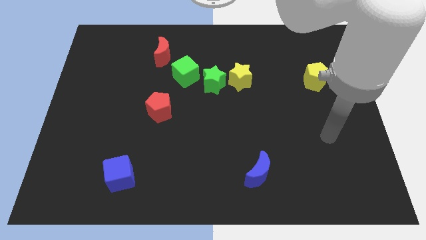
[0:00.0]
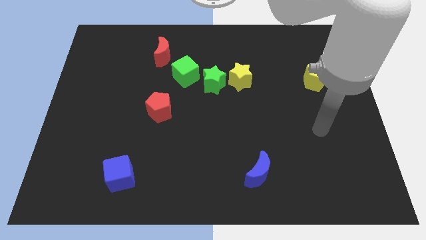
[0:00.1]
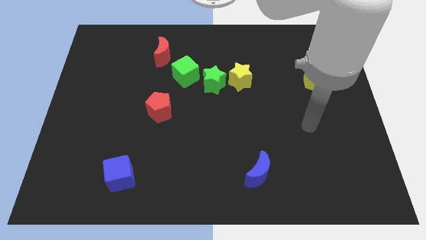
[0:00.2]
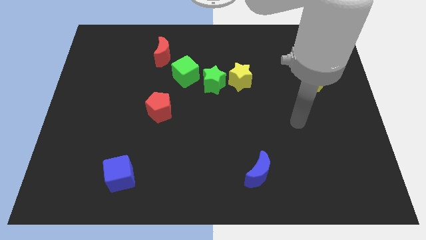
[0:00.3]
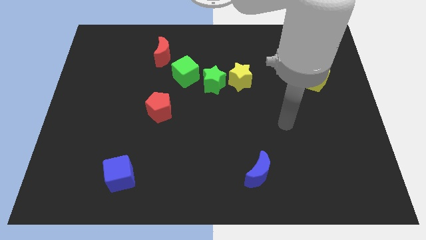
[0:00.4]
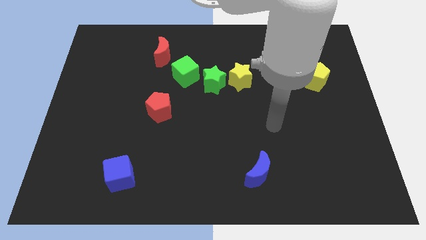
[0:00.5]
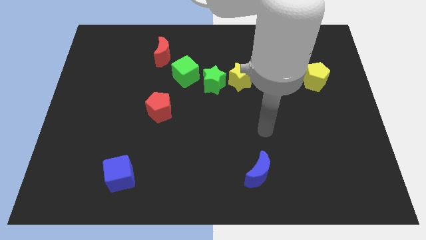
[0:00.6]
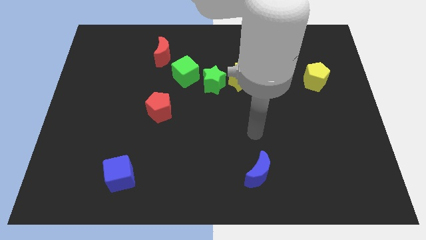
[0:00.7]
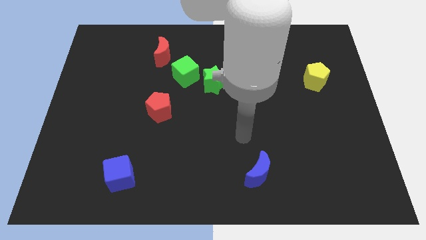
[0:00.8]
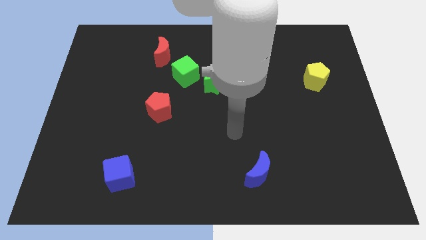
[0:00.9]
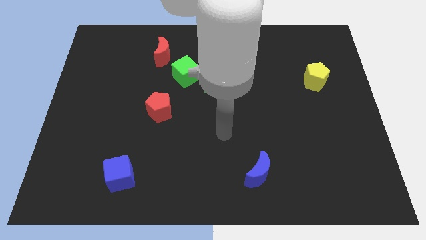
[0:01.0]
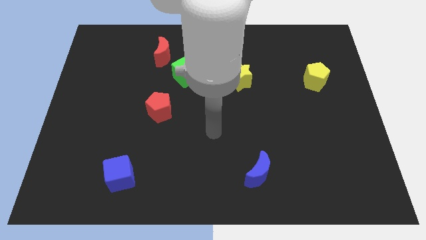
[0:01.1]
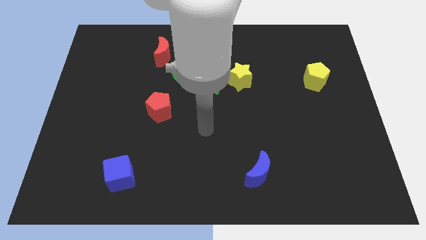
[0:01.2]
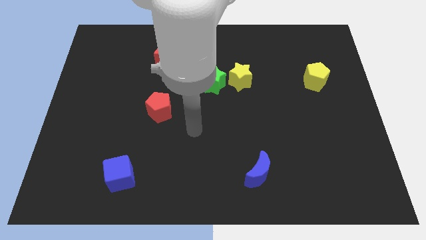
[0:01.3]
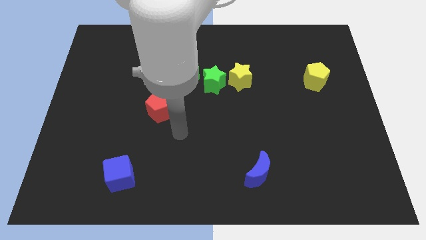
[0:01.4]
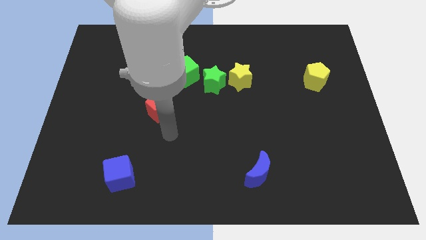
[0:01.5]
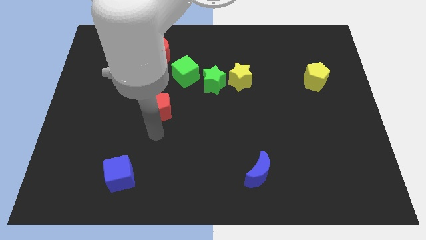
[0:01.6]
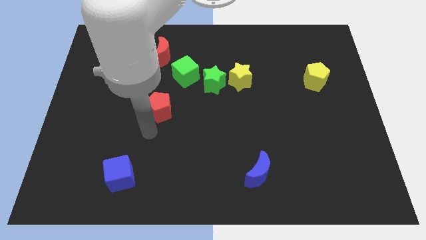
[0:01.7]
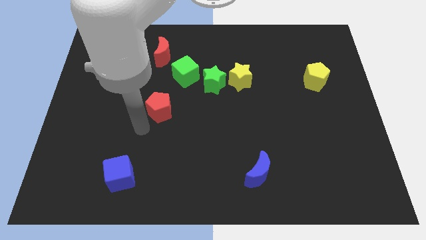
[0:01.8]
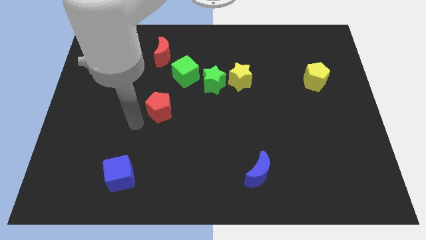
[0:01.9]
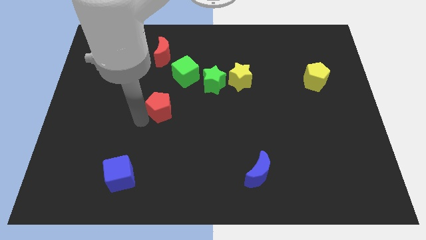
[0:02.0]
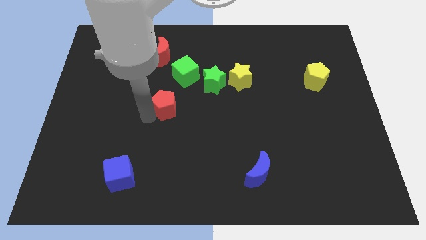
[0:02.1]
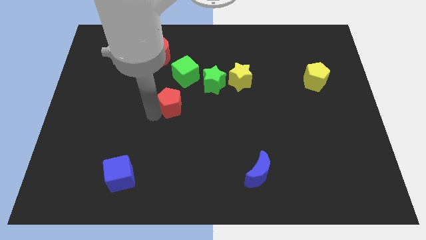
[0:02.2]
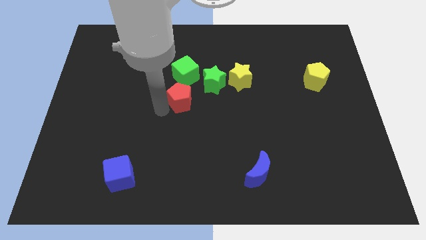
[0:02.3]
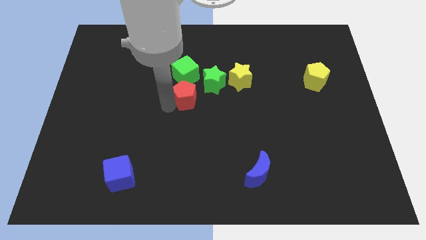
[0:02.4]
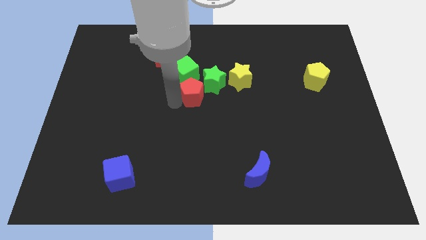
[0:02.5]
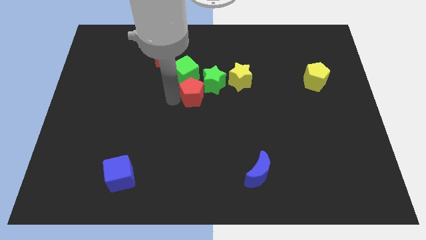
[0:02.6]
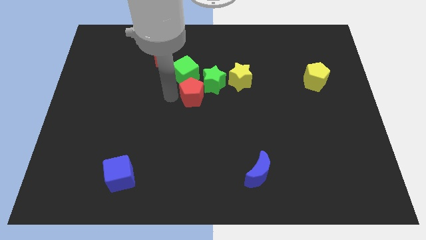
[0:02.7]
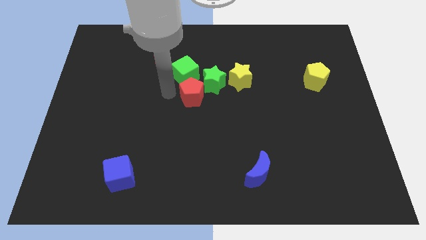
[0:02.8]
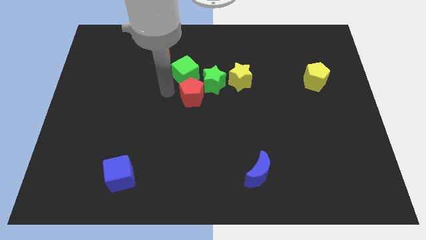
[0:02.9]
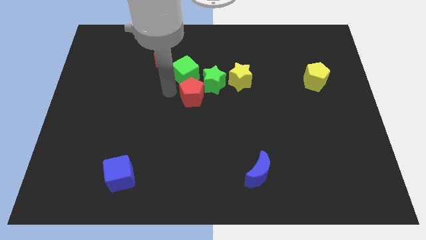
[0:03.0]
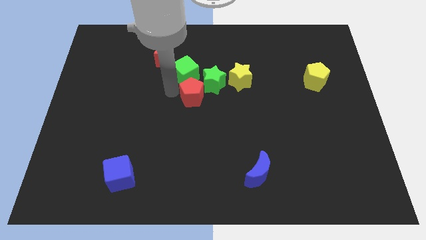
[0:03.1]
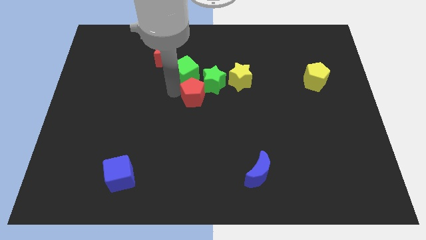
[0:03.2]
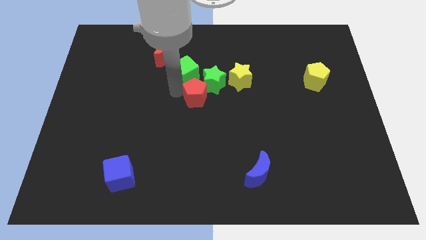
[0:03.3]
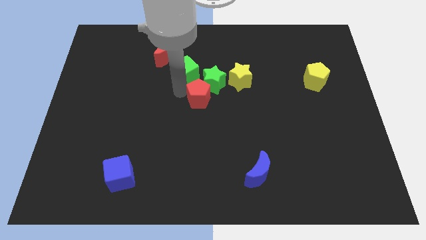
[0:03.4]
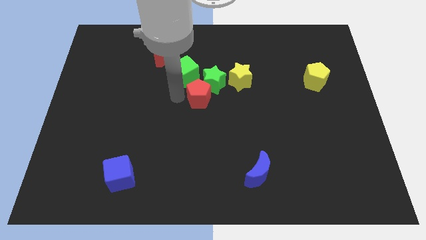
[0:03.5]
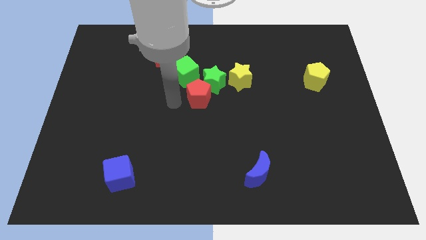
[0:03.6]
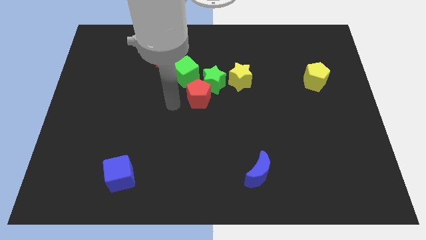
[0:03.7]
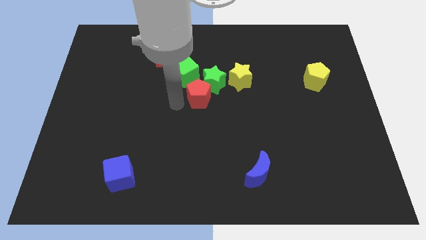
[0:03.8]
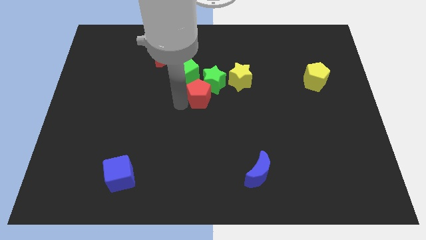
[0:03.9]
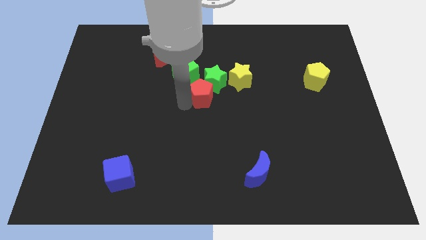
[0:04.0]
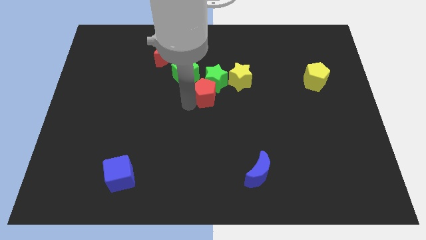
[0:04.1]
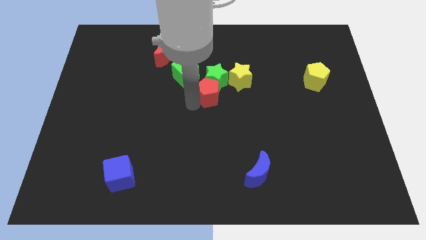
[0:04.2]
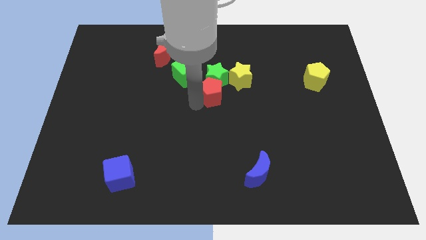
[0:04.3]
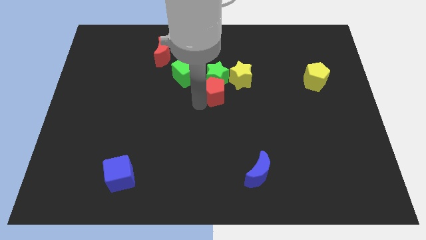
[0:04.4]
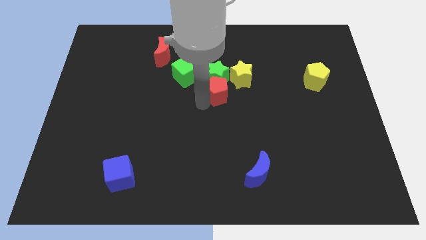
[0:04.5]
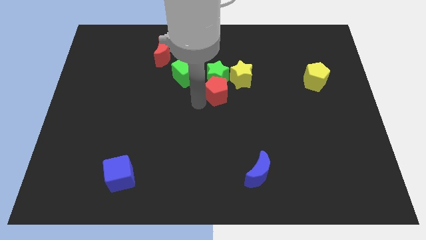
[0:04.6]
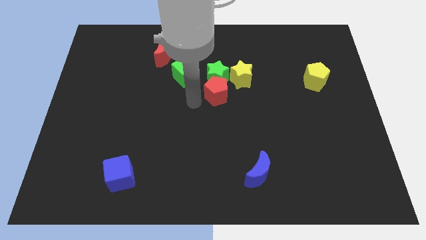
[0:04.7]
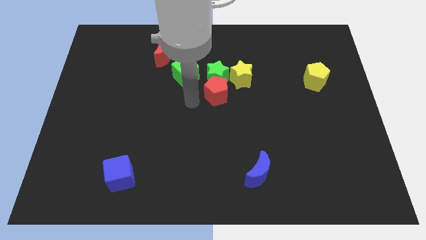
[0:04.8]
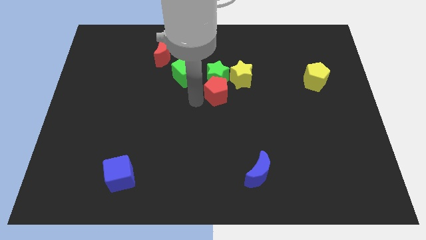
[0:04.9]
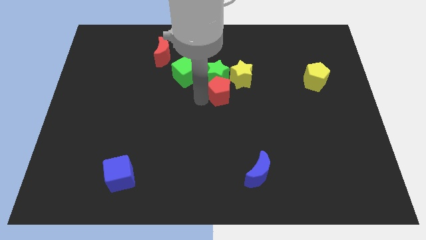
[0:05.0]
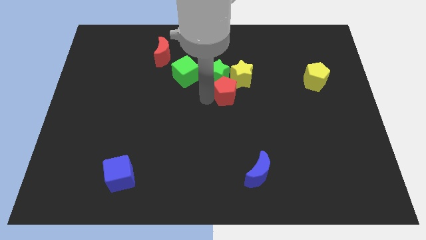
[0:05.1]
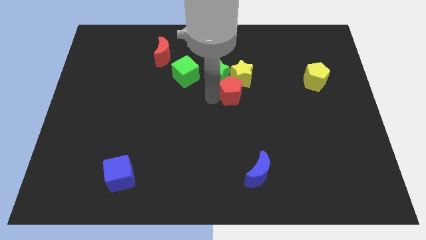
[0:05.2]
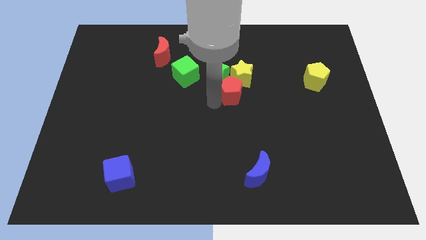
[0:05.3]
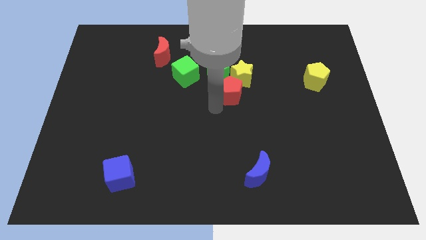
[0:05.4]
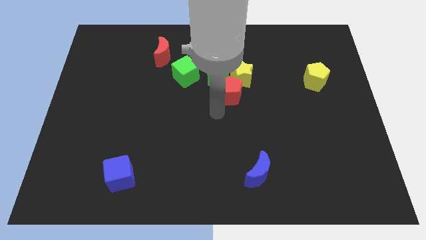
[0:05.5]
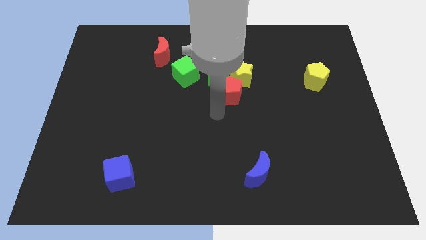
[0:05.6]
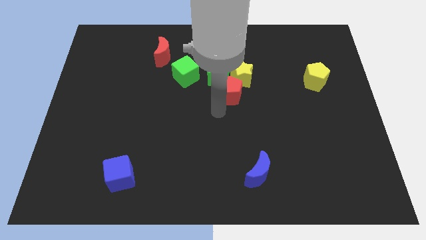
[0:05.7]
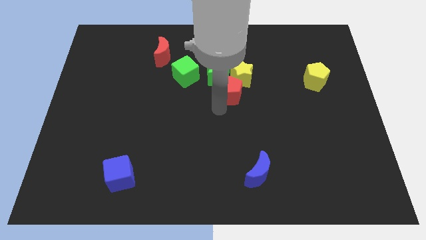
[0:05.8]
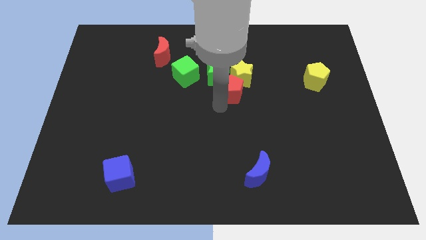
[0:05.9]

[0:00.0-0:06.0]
move the red pentagon to the yellow star

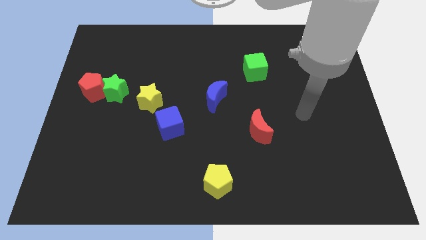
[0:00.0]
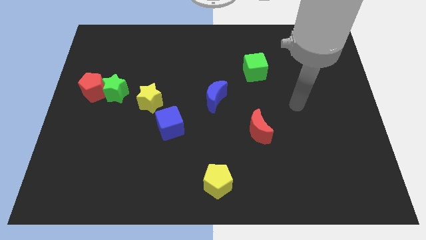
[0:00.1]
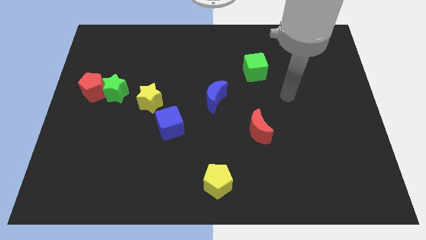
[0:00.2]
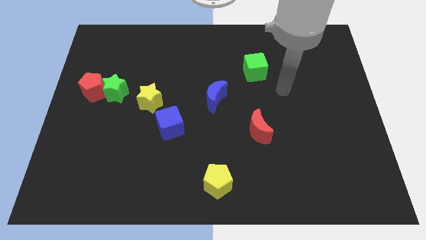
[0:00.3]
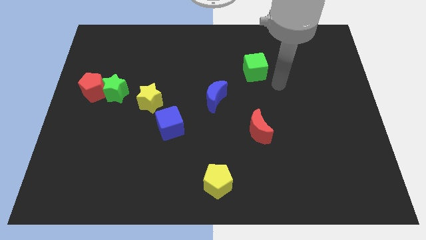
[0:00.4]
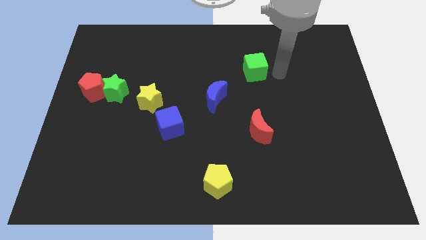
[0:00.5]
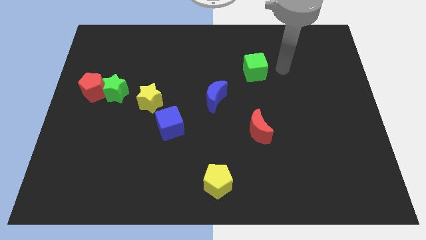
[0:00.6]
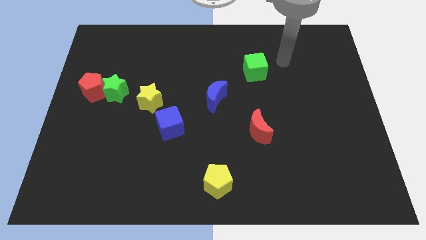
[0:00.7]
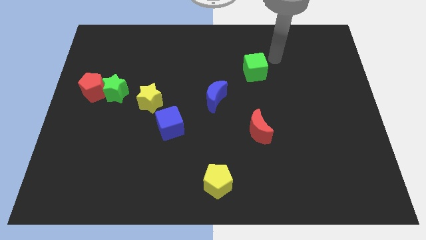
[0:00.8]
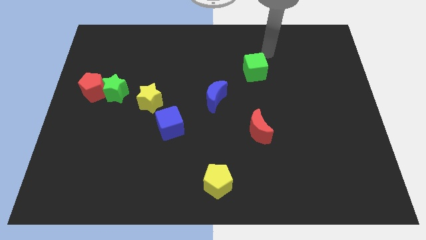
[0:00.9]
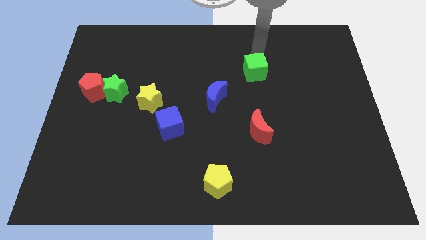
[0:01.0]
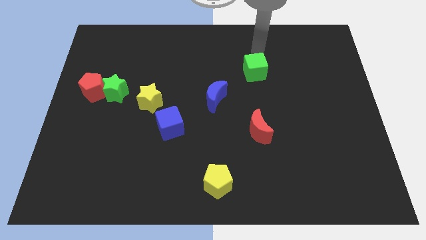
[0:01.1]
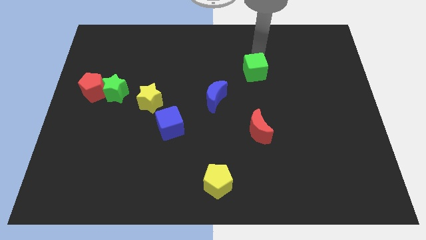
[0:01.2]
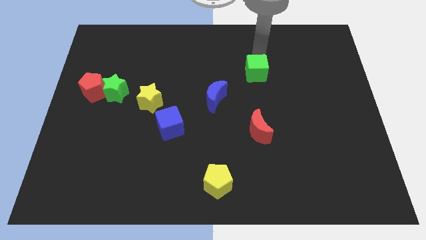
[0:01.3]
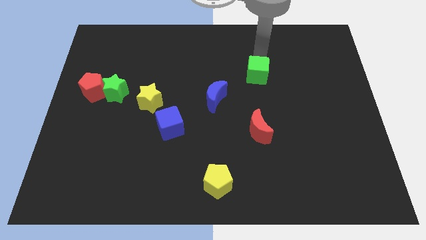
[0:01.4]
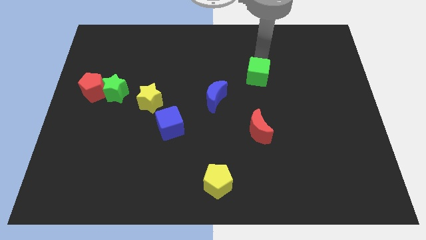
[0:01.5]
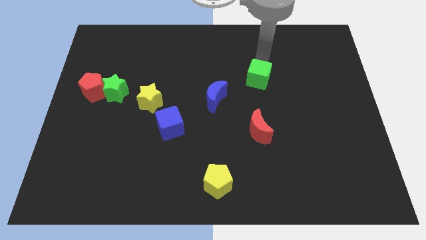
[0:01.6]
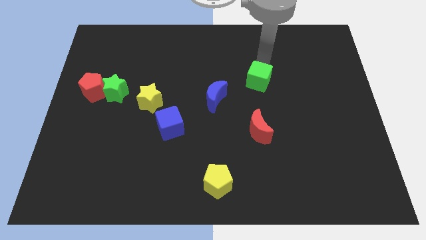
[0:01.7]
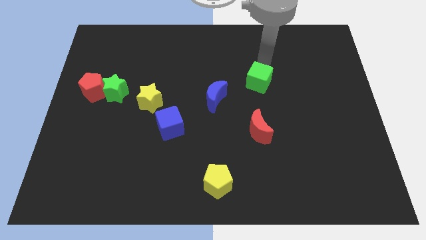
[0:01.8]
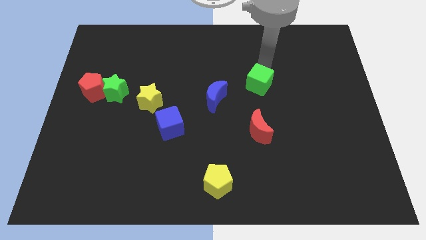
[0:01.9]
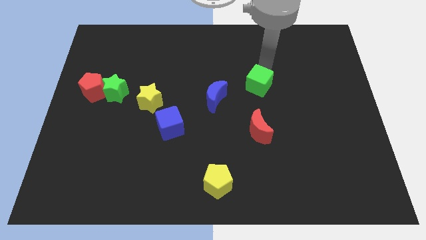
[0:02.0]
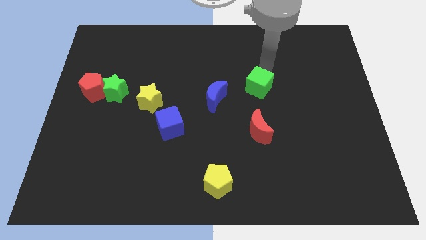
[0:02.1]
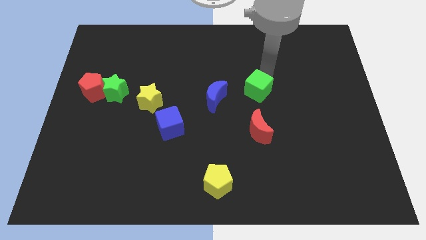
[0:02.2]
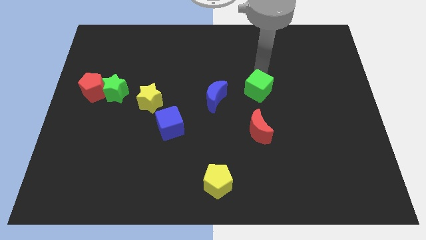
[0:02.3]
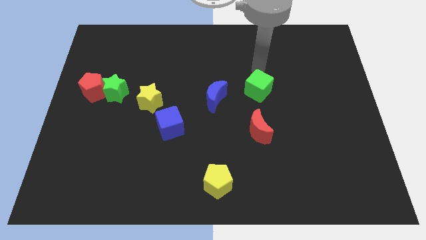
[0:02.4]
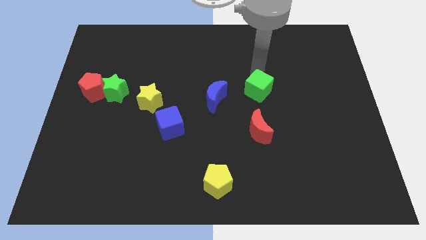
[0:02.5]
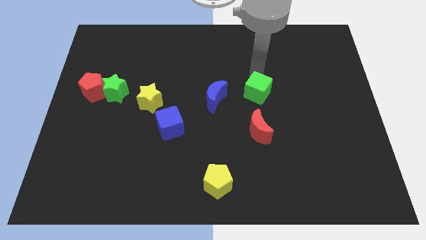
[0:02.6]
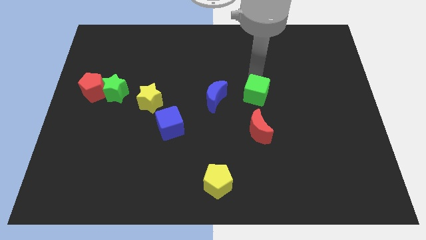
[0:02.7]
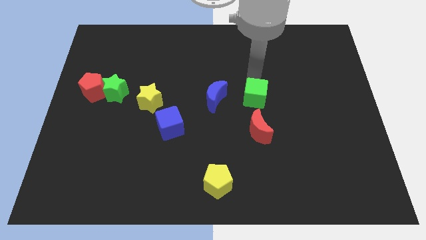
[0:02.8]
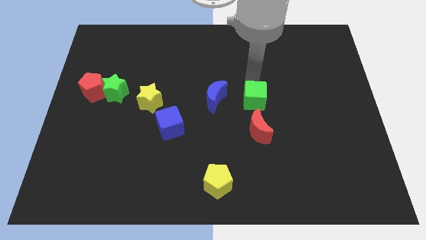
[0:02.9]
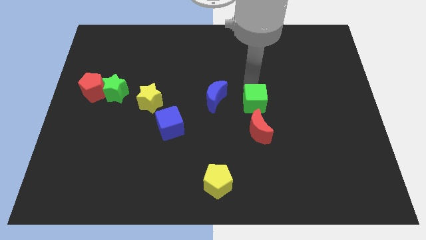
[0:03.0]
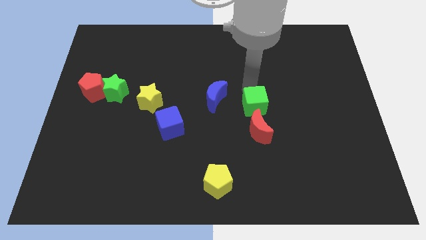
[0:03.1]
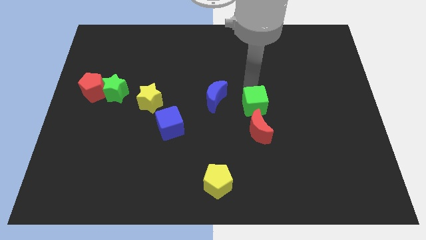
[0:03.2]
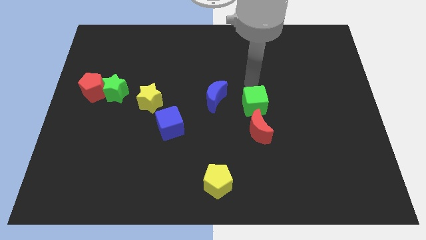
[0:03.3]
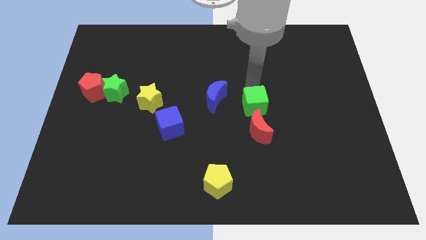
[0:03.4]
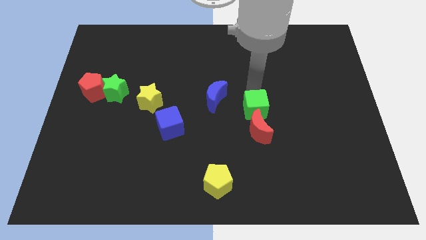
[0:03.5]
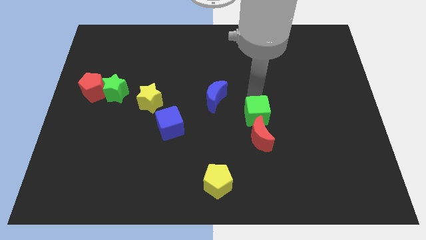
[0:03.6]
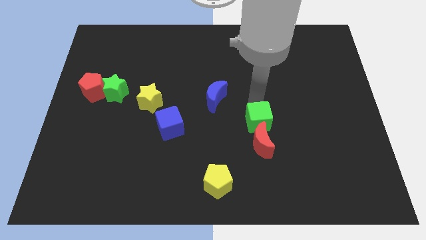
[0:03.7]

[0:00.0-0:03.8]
push the green cube to the red moon
